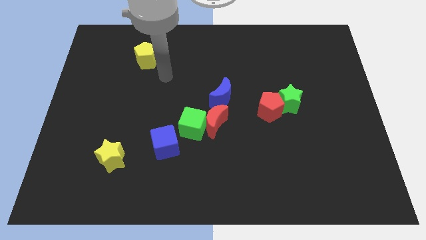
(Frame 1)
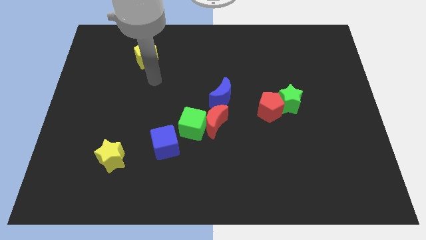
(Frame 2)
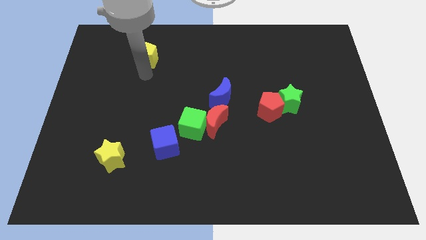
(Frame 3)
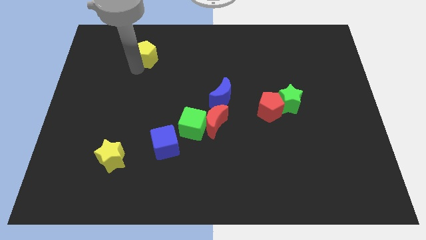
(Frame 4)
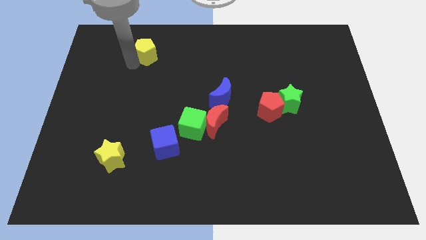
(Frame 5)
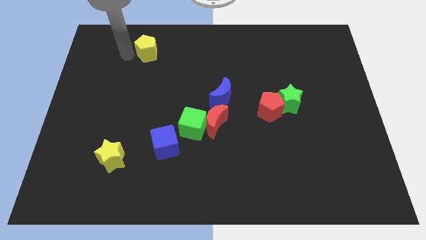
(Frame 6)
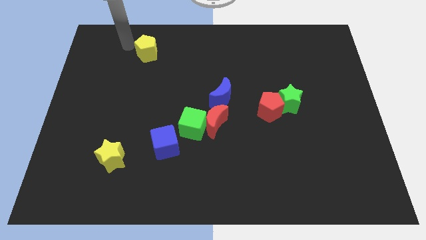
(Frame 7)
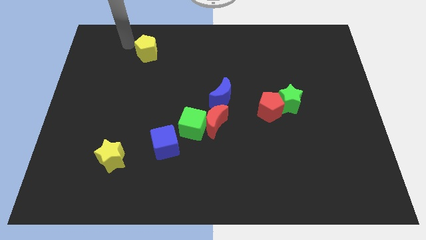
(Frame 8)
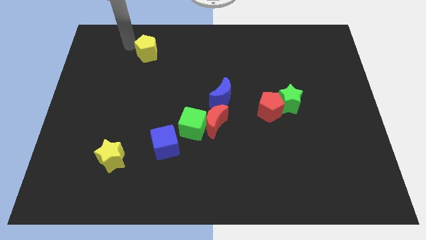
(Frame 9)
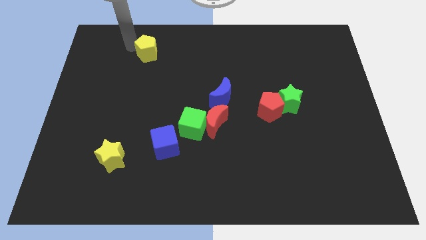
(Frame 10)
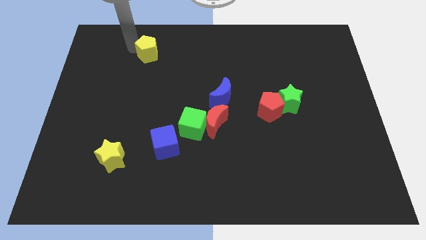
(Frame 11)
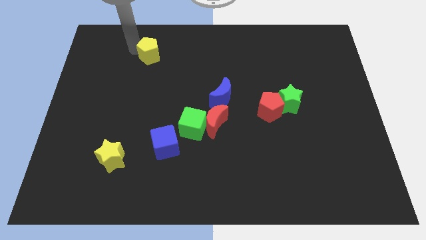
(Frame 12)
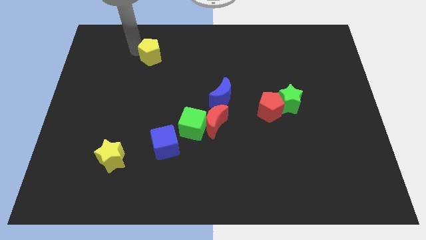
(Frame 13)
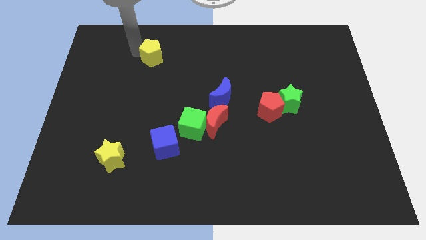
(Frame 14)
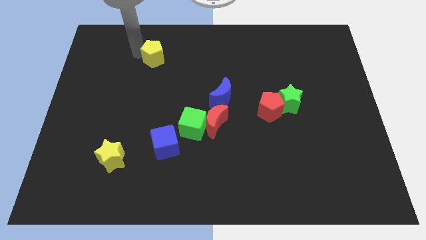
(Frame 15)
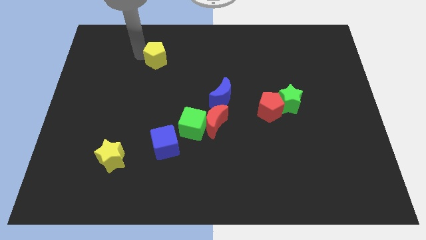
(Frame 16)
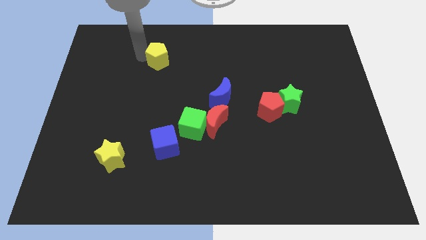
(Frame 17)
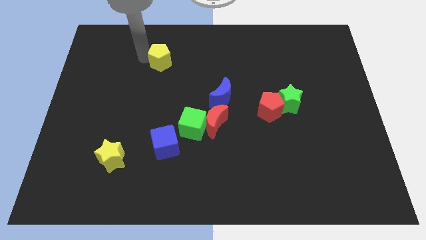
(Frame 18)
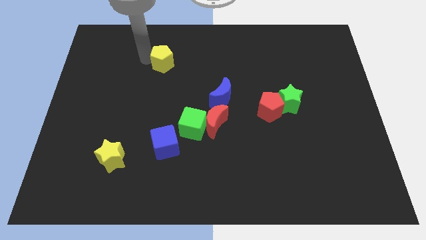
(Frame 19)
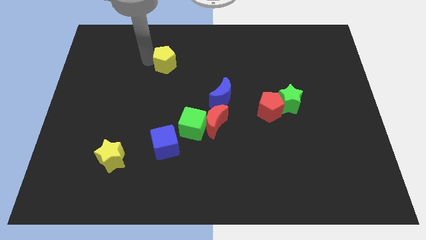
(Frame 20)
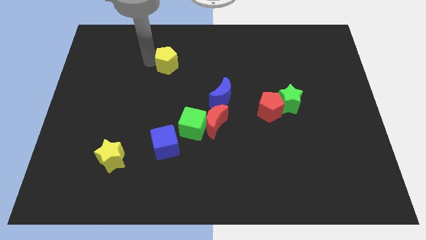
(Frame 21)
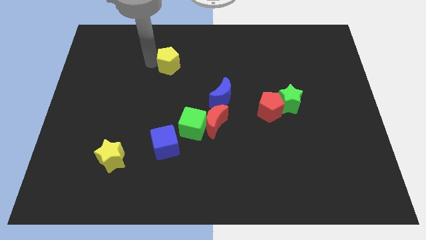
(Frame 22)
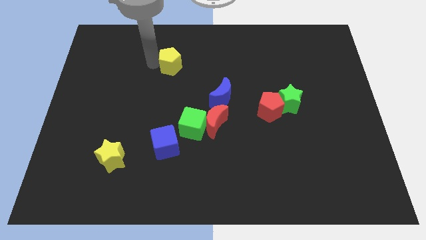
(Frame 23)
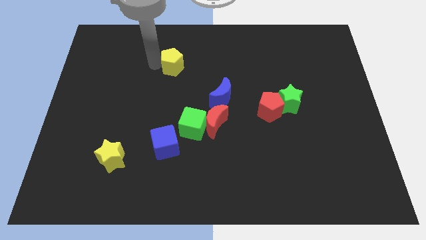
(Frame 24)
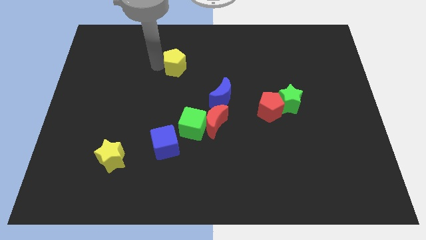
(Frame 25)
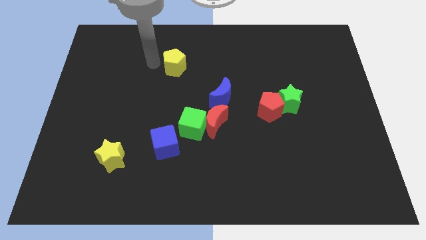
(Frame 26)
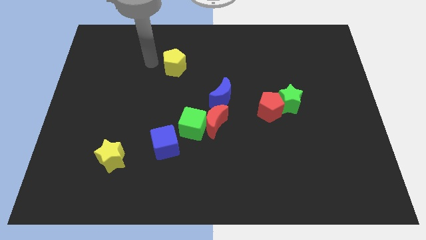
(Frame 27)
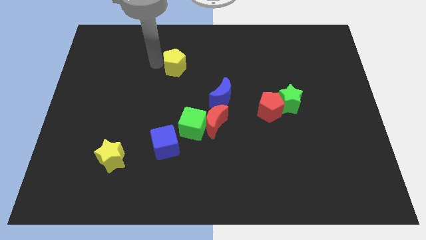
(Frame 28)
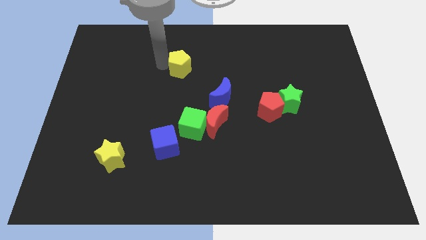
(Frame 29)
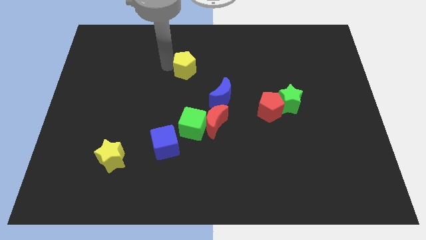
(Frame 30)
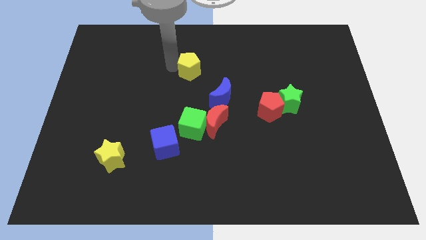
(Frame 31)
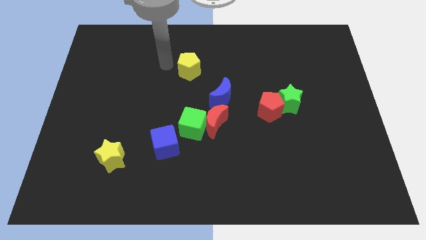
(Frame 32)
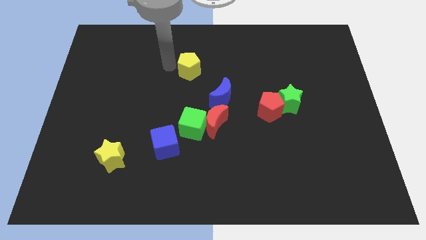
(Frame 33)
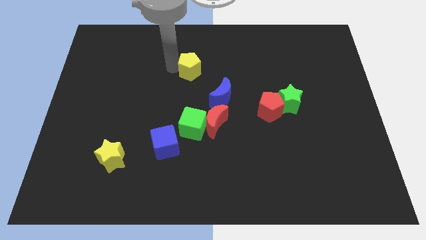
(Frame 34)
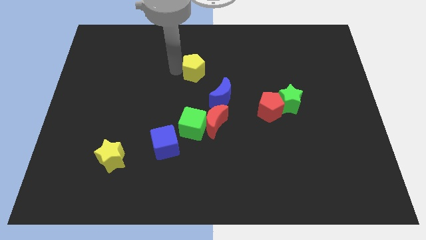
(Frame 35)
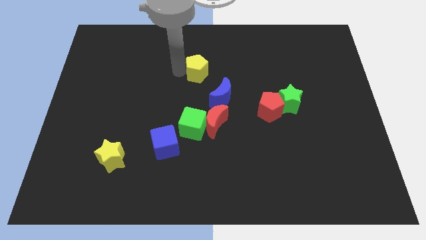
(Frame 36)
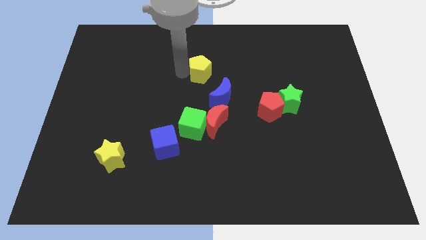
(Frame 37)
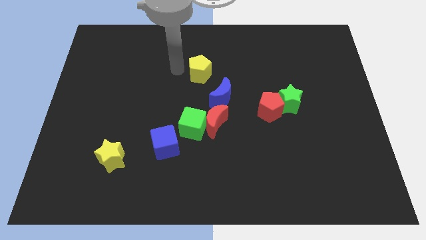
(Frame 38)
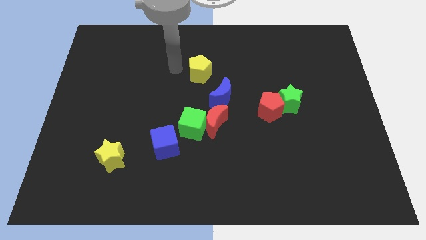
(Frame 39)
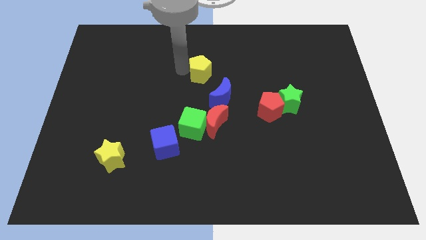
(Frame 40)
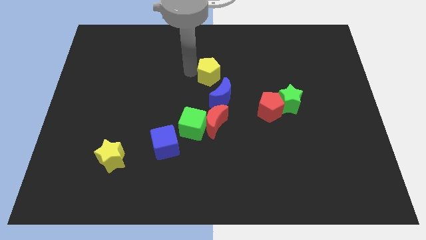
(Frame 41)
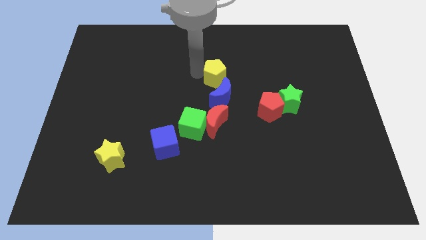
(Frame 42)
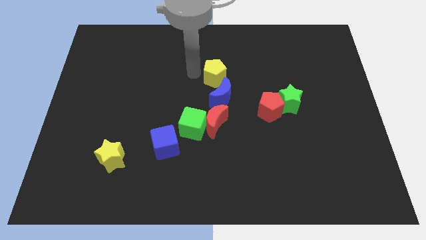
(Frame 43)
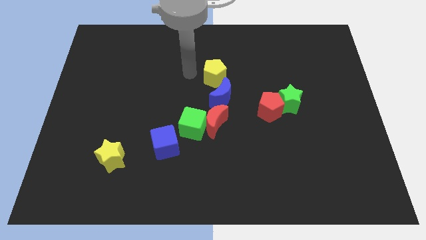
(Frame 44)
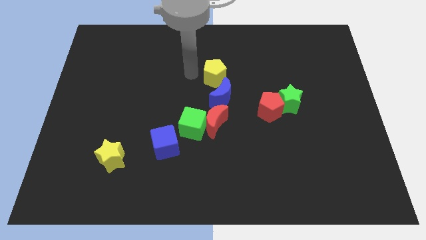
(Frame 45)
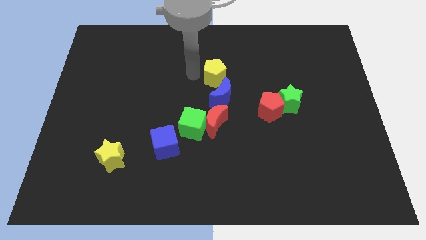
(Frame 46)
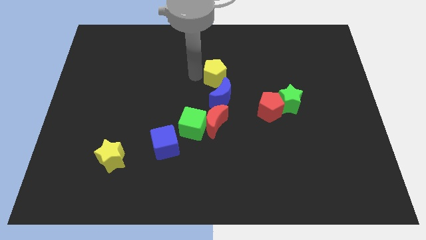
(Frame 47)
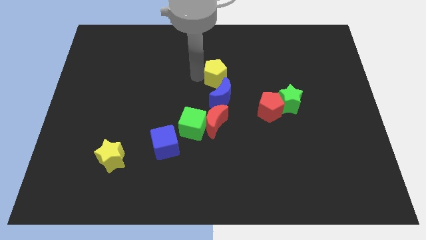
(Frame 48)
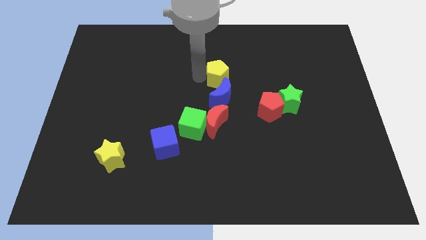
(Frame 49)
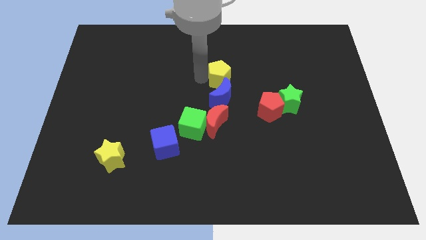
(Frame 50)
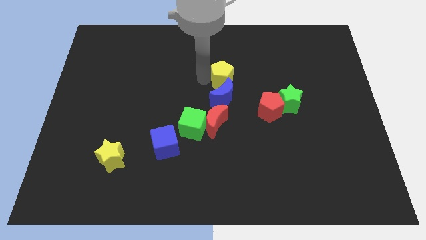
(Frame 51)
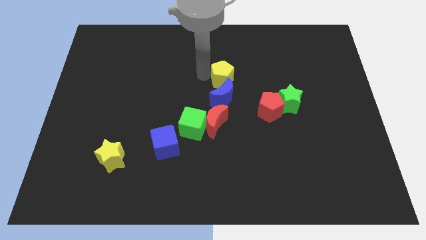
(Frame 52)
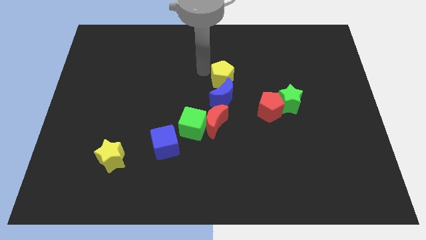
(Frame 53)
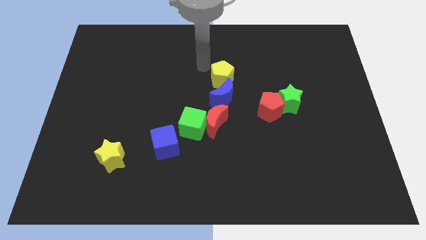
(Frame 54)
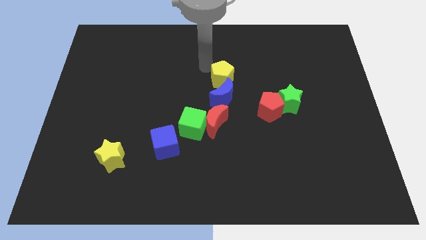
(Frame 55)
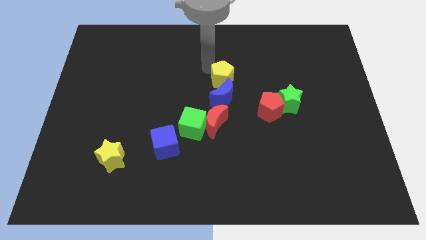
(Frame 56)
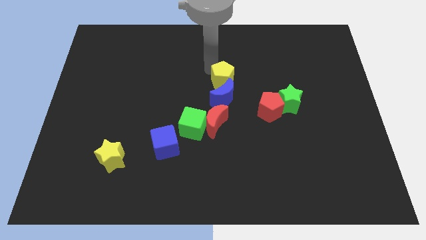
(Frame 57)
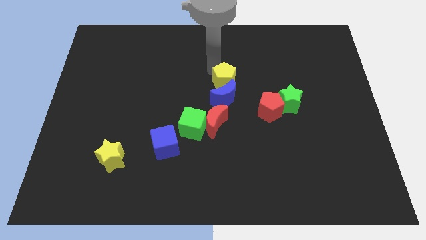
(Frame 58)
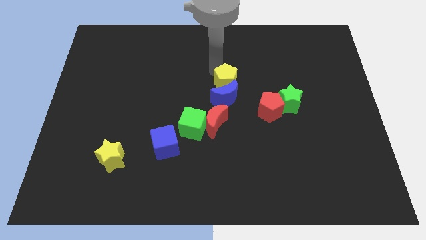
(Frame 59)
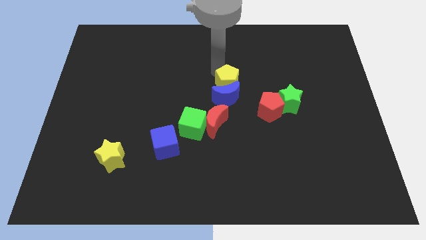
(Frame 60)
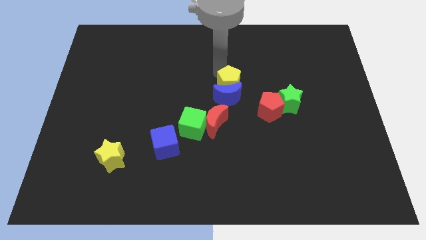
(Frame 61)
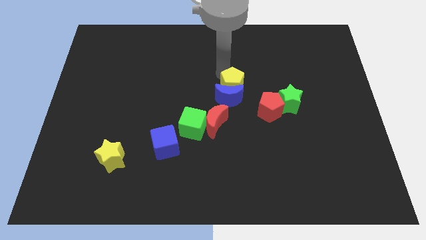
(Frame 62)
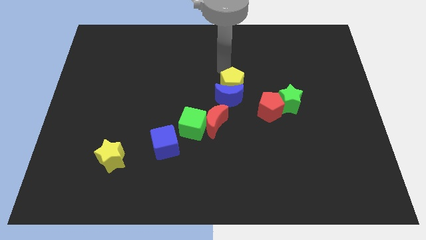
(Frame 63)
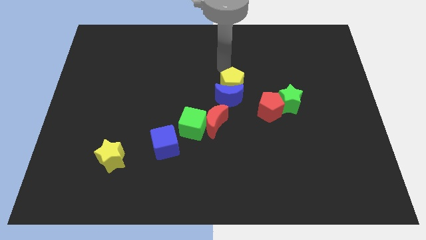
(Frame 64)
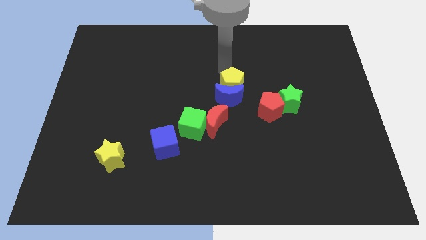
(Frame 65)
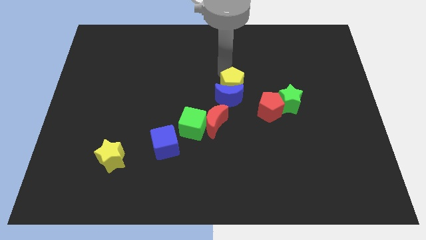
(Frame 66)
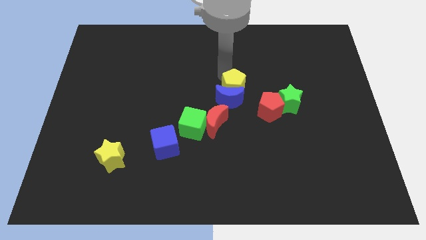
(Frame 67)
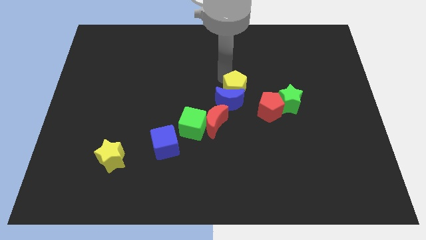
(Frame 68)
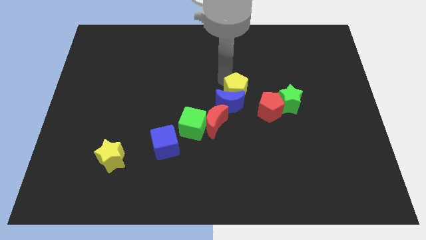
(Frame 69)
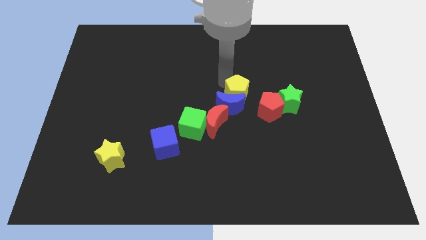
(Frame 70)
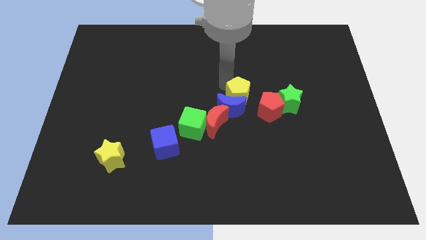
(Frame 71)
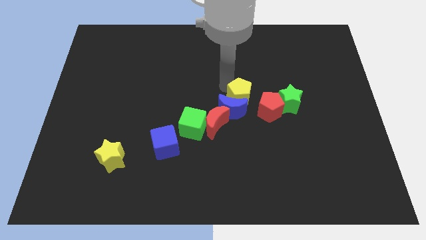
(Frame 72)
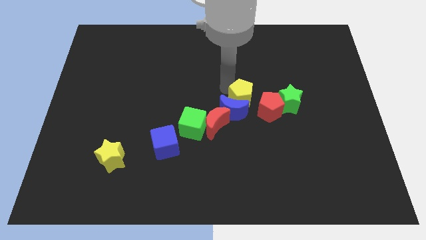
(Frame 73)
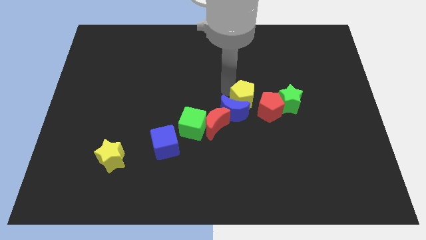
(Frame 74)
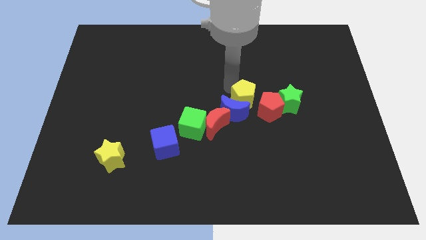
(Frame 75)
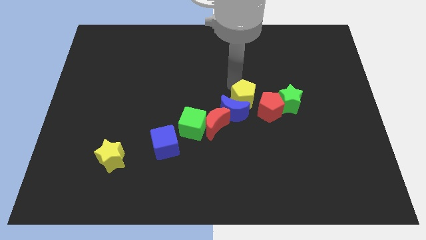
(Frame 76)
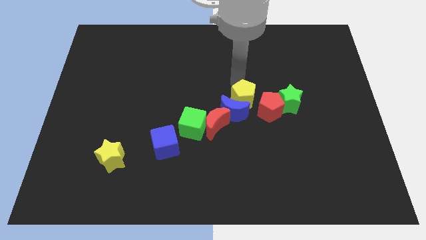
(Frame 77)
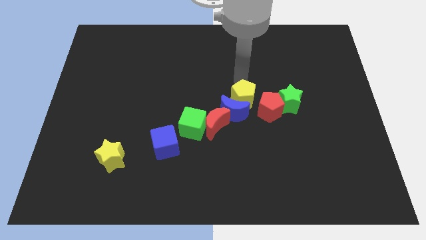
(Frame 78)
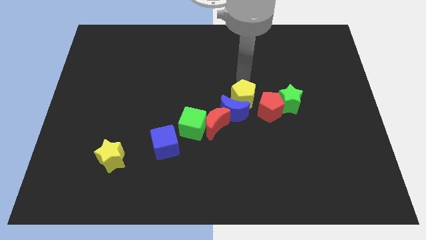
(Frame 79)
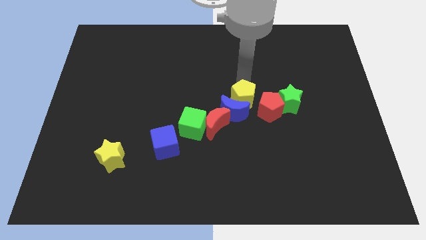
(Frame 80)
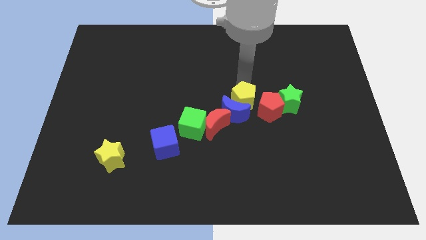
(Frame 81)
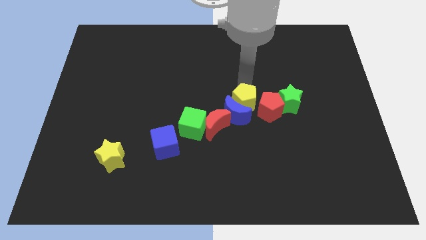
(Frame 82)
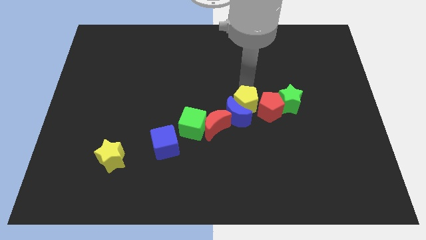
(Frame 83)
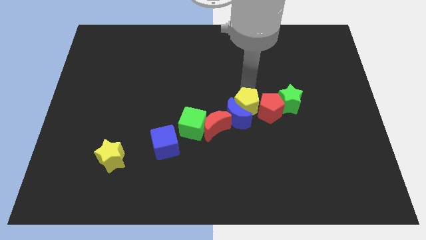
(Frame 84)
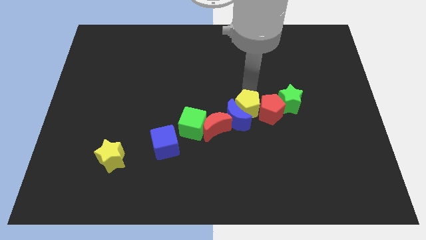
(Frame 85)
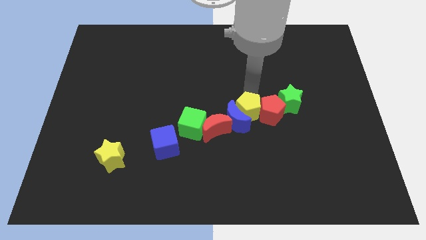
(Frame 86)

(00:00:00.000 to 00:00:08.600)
slide the yellow pentagon to the right side of the green cube
